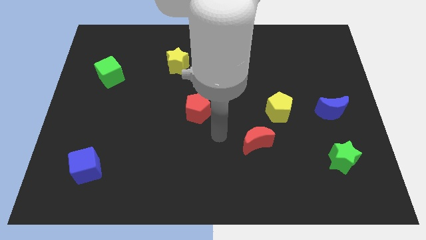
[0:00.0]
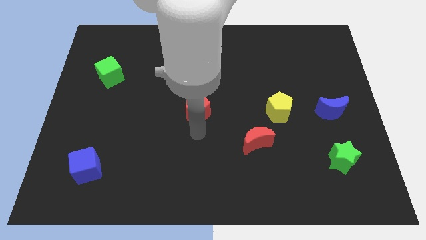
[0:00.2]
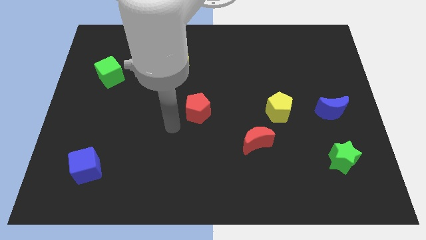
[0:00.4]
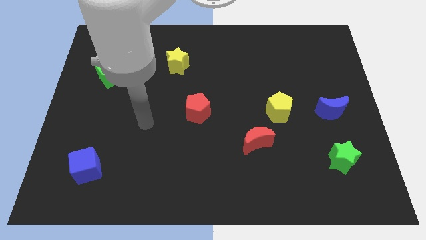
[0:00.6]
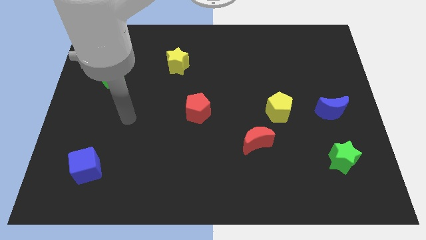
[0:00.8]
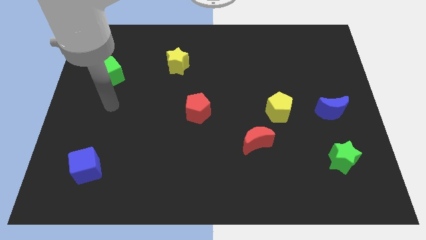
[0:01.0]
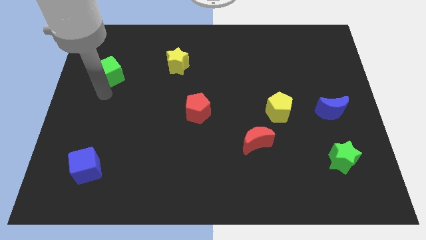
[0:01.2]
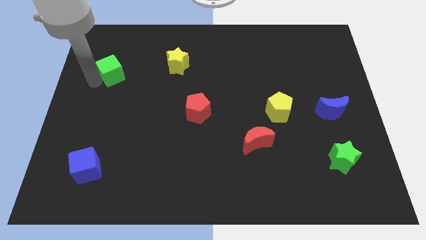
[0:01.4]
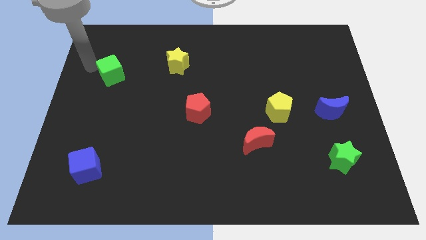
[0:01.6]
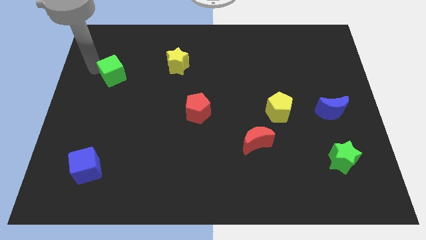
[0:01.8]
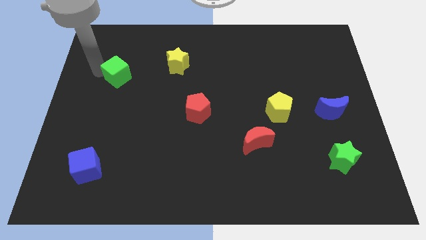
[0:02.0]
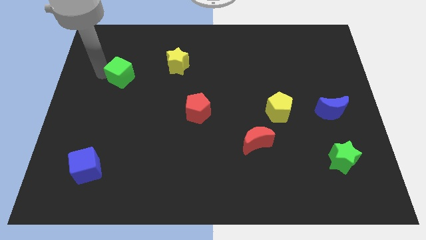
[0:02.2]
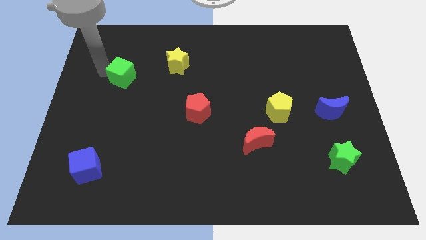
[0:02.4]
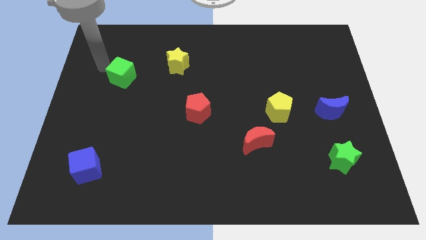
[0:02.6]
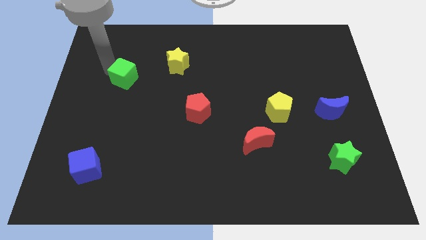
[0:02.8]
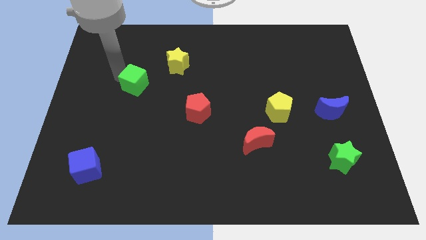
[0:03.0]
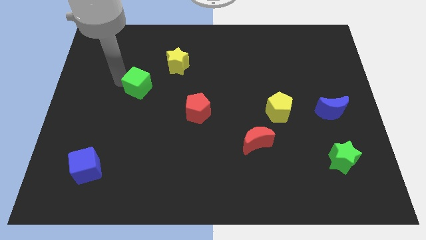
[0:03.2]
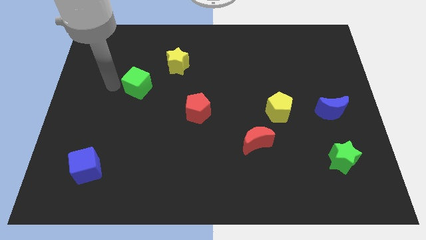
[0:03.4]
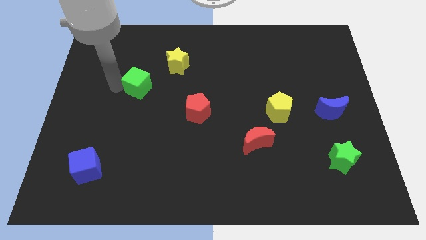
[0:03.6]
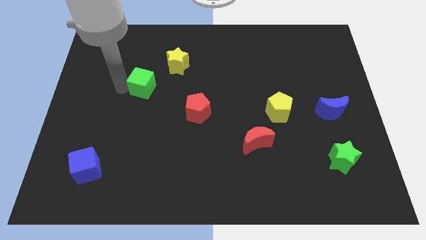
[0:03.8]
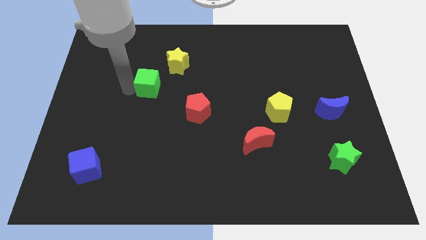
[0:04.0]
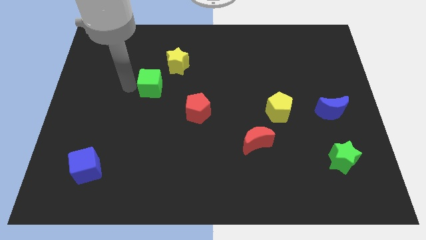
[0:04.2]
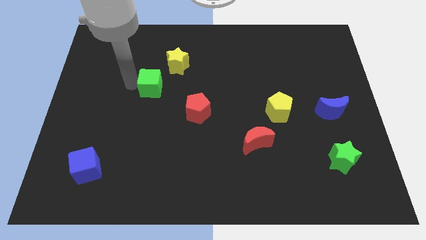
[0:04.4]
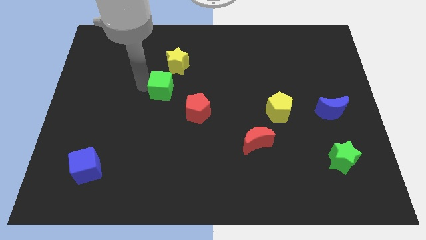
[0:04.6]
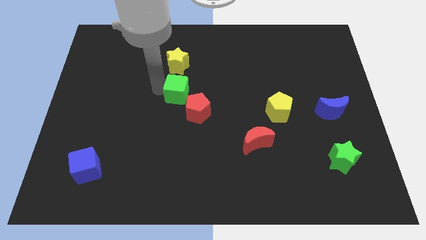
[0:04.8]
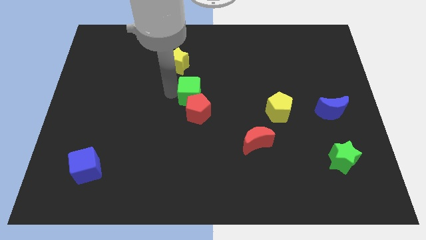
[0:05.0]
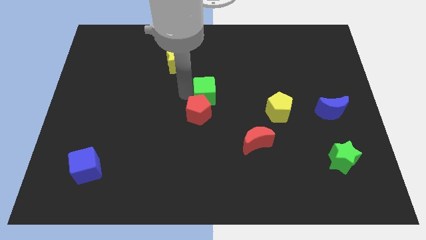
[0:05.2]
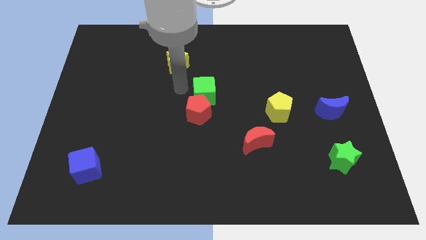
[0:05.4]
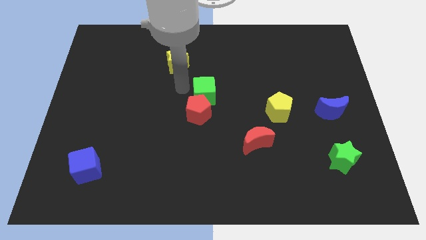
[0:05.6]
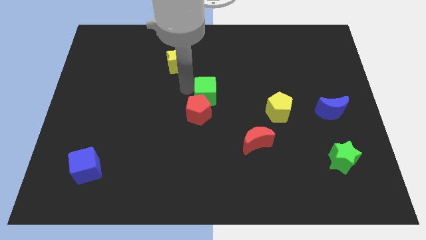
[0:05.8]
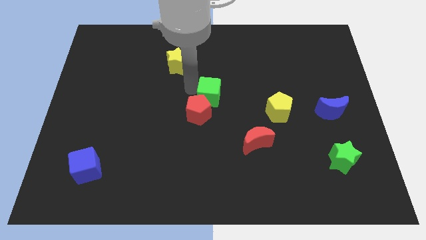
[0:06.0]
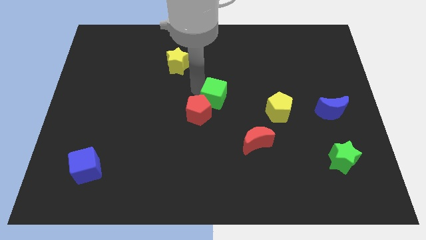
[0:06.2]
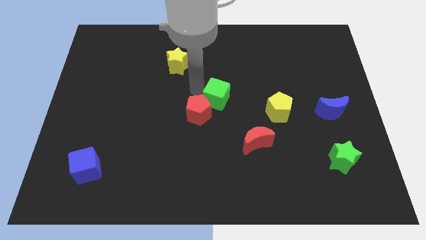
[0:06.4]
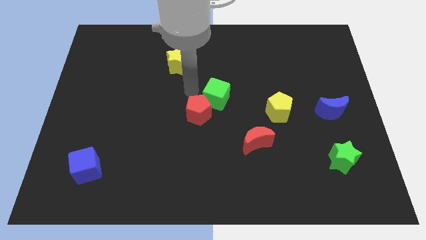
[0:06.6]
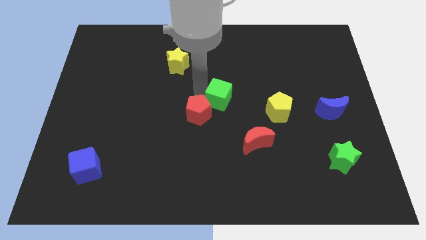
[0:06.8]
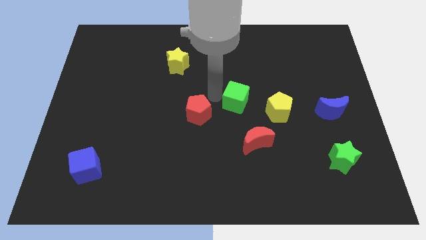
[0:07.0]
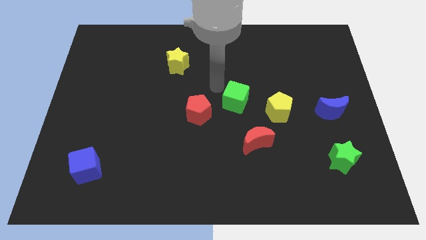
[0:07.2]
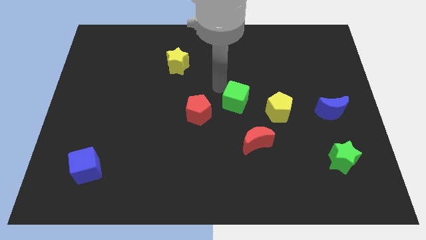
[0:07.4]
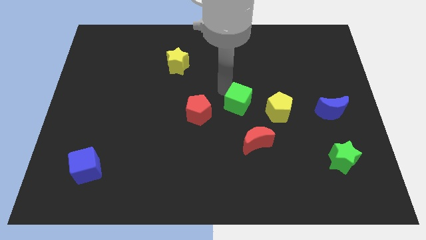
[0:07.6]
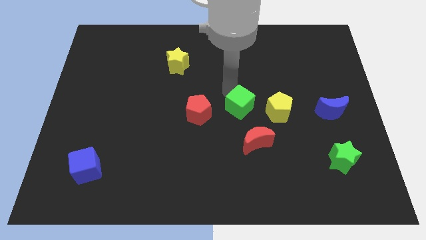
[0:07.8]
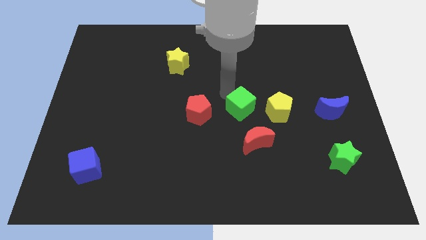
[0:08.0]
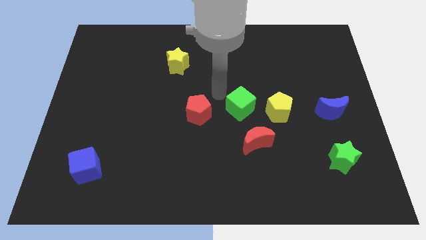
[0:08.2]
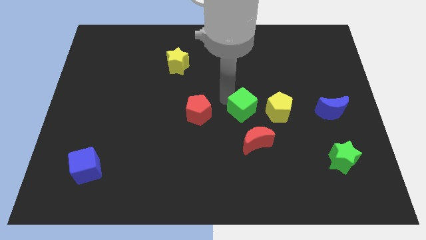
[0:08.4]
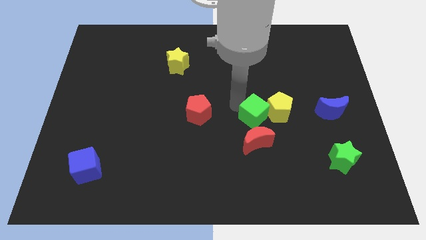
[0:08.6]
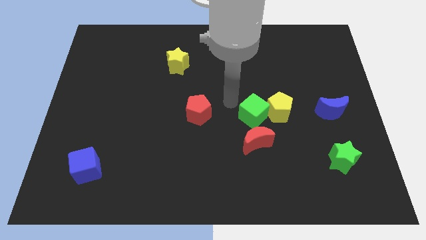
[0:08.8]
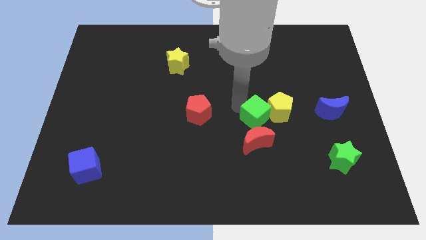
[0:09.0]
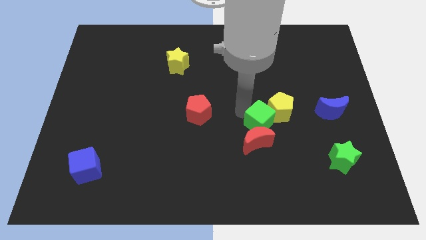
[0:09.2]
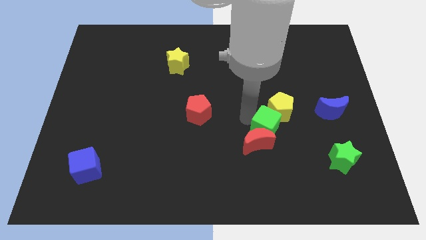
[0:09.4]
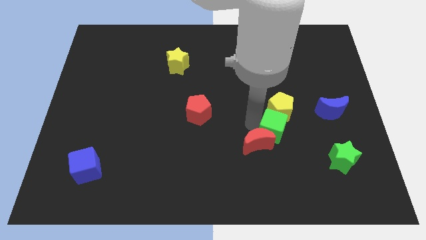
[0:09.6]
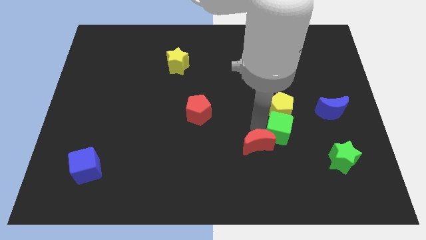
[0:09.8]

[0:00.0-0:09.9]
slide the green cube diagonally down and to the right of the yellow pentagon

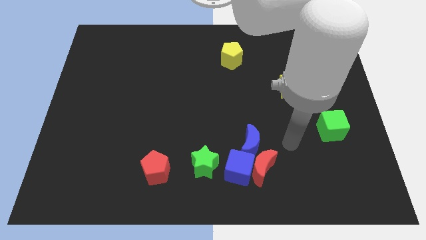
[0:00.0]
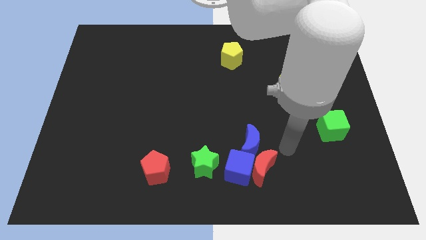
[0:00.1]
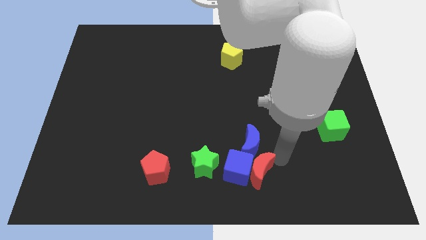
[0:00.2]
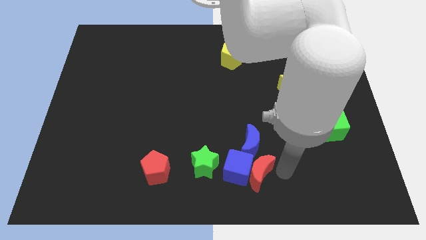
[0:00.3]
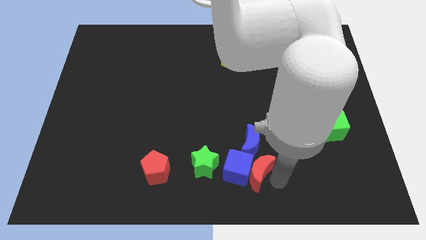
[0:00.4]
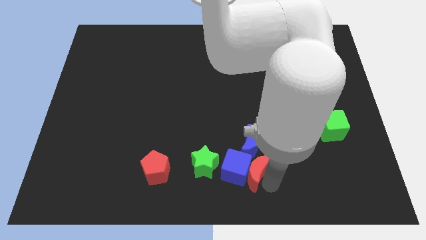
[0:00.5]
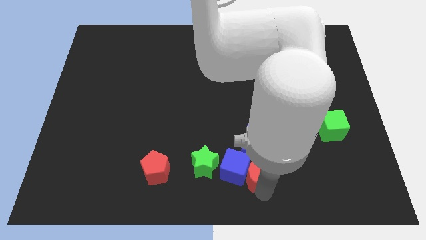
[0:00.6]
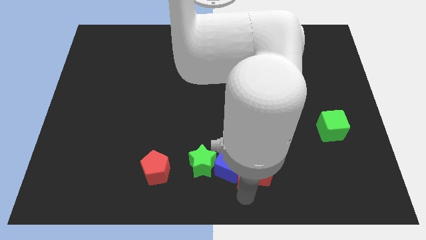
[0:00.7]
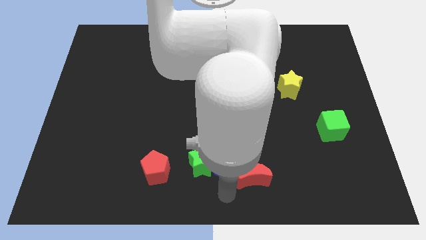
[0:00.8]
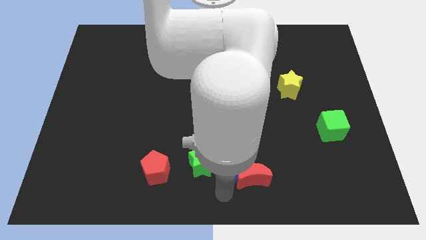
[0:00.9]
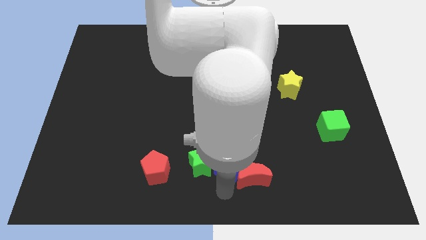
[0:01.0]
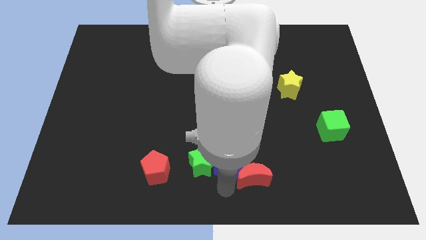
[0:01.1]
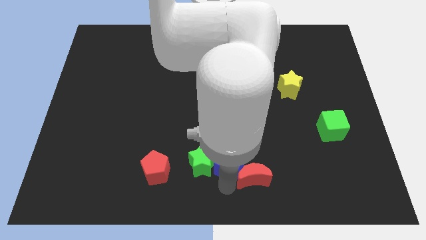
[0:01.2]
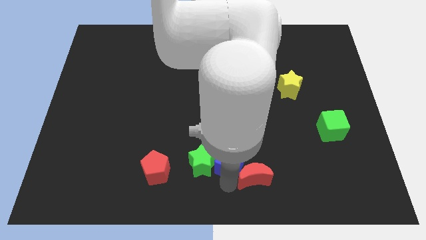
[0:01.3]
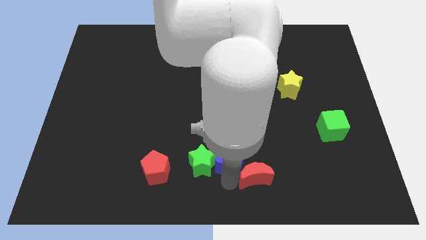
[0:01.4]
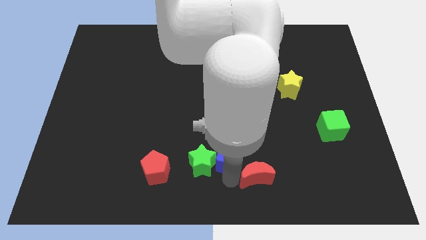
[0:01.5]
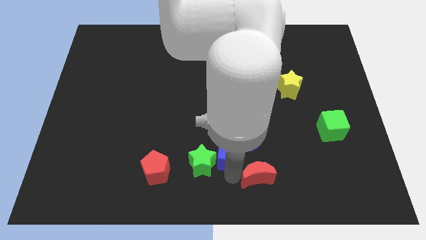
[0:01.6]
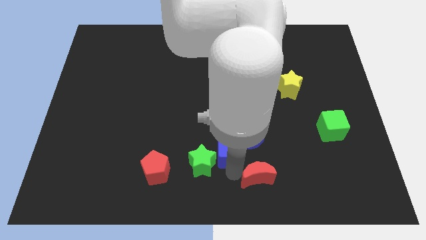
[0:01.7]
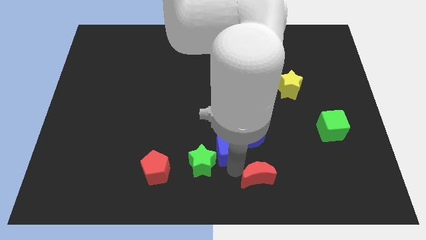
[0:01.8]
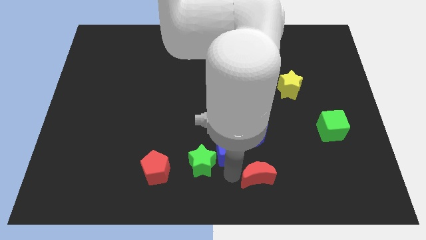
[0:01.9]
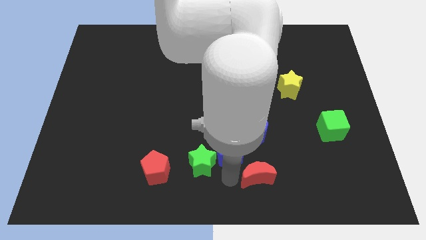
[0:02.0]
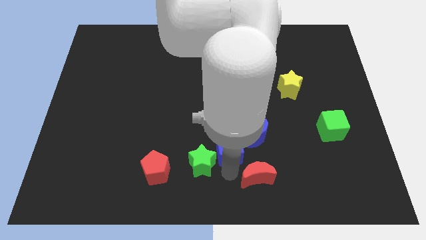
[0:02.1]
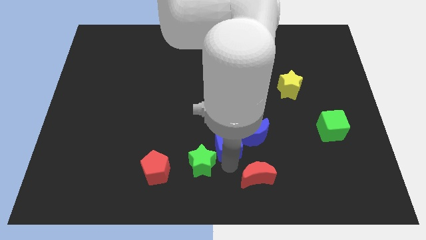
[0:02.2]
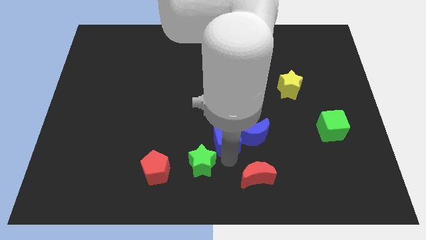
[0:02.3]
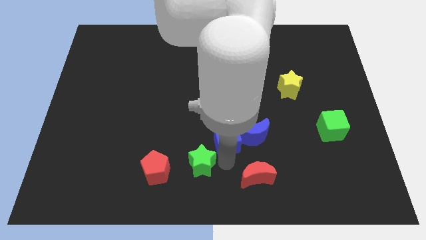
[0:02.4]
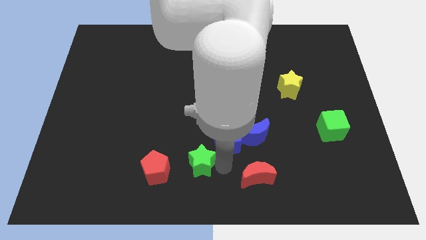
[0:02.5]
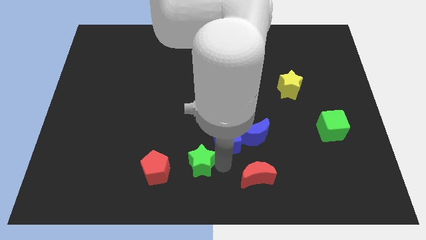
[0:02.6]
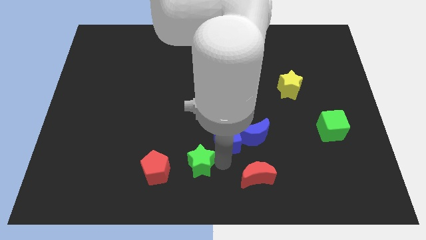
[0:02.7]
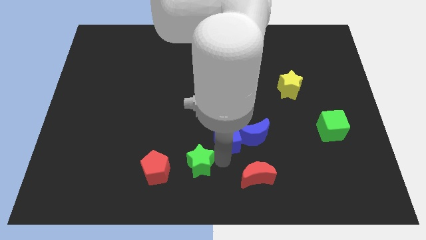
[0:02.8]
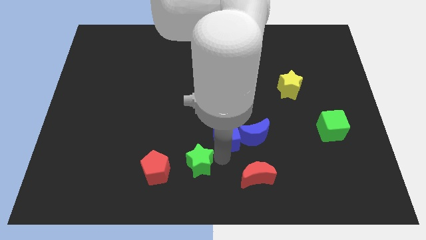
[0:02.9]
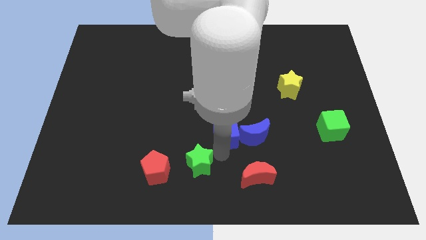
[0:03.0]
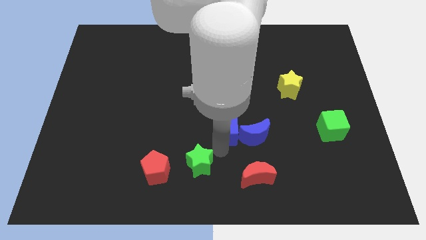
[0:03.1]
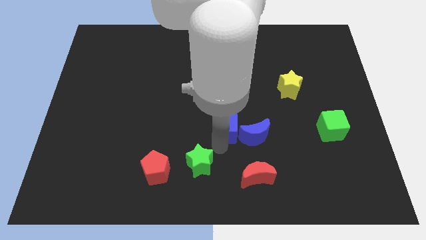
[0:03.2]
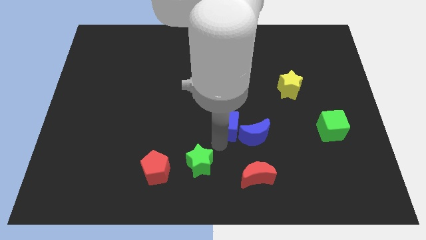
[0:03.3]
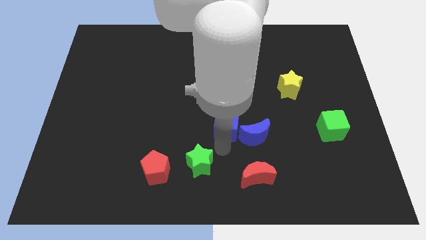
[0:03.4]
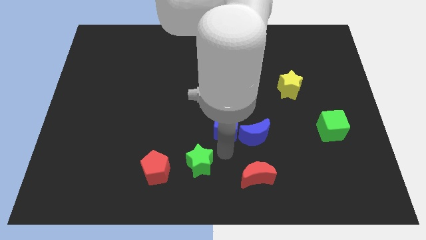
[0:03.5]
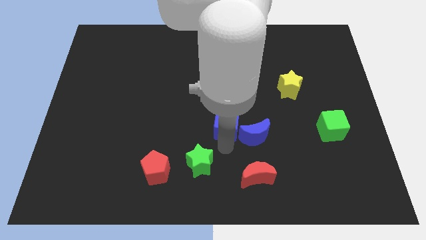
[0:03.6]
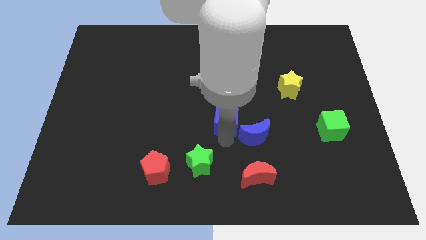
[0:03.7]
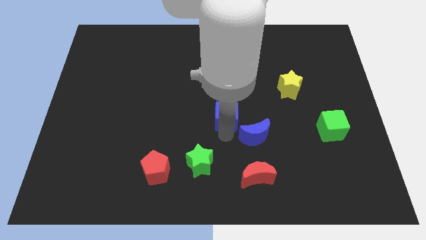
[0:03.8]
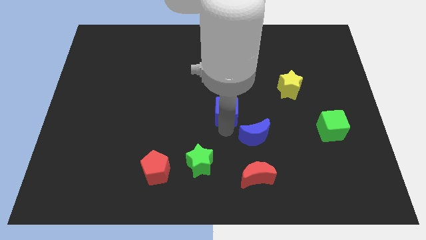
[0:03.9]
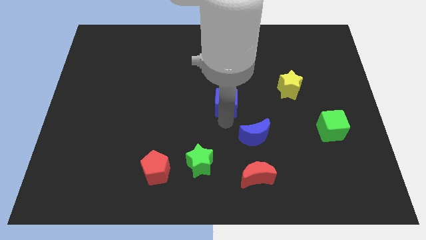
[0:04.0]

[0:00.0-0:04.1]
push the blue cube to the bottom of the yellow pentagon
